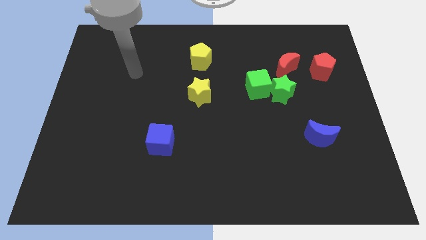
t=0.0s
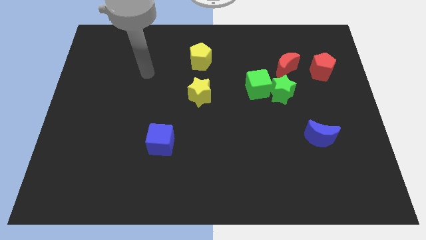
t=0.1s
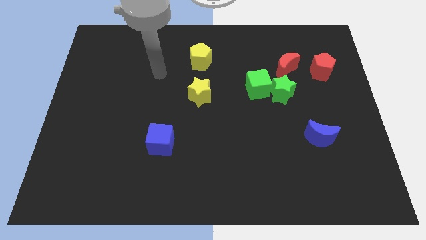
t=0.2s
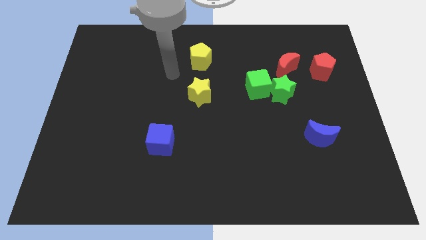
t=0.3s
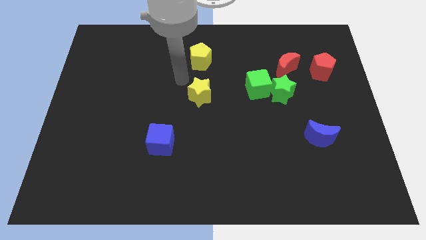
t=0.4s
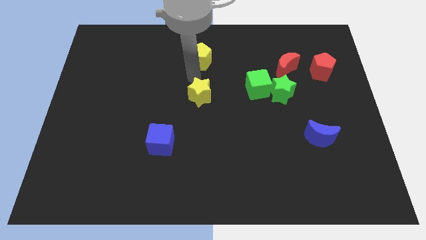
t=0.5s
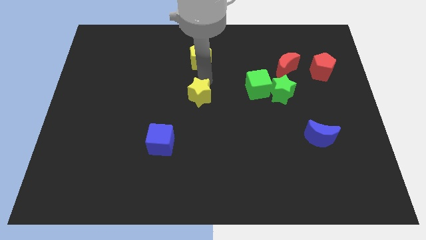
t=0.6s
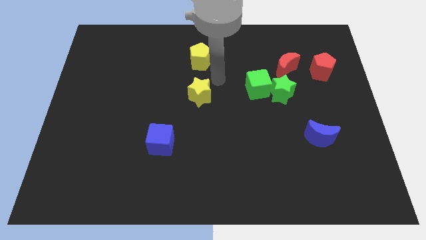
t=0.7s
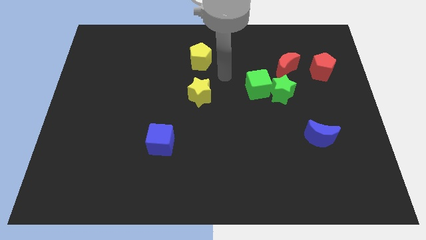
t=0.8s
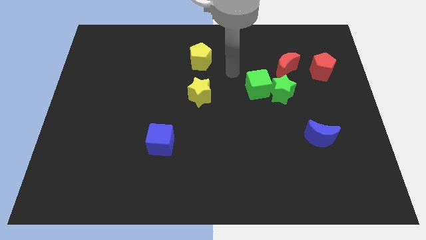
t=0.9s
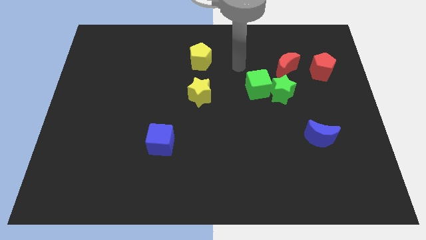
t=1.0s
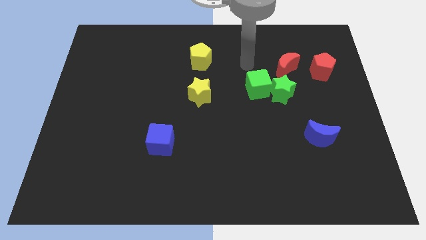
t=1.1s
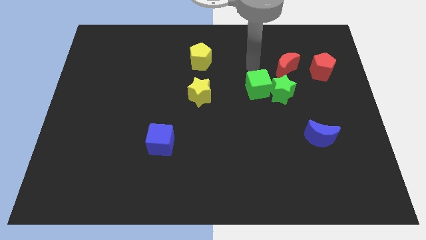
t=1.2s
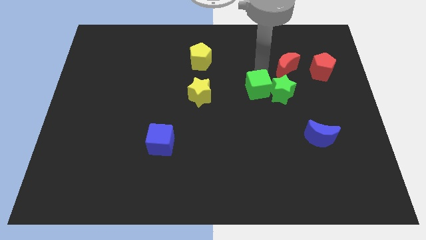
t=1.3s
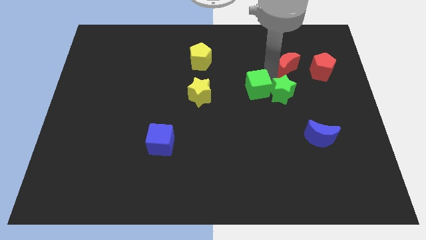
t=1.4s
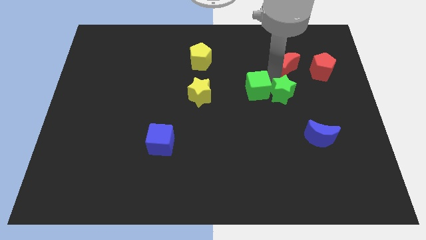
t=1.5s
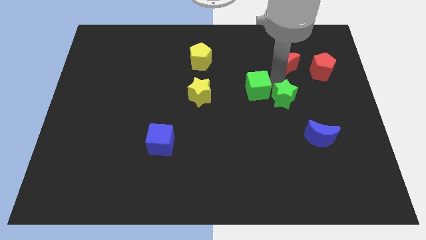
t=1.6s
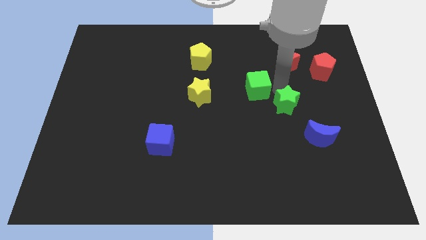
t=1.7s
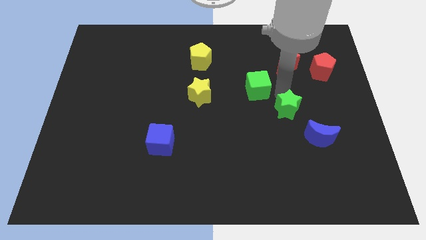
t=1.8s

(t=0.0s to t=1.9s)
pull the green star apart from the green cube and red moon

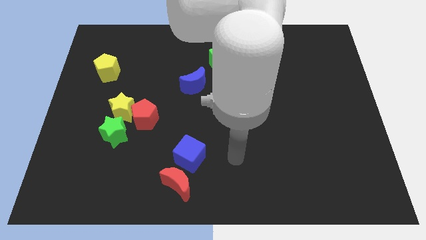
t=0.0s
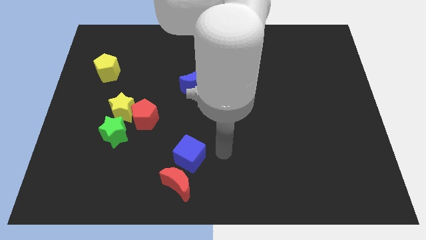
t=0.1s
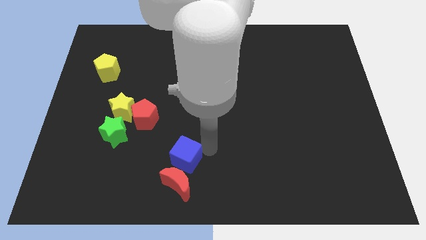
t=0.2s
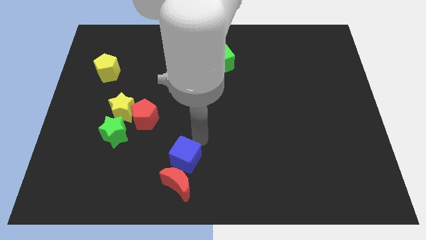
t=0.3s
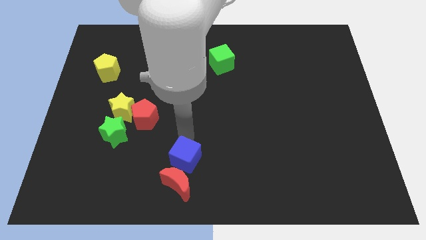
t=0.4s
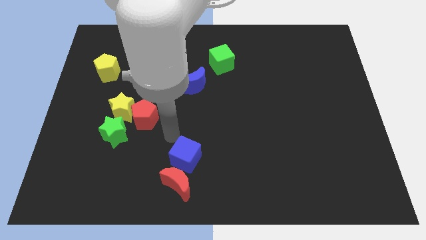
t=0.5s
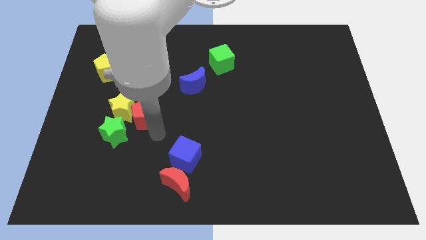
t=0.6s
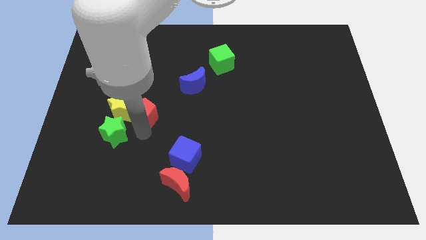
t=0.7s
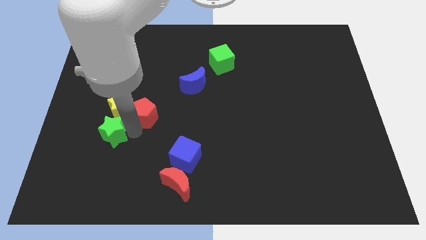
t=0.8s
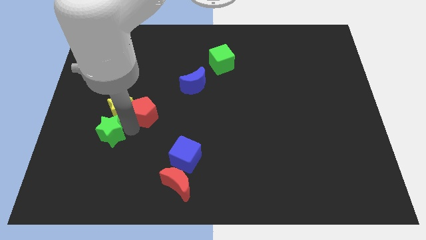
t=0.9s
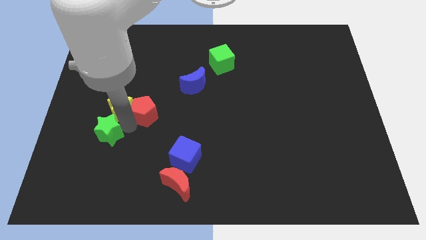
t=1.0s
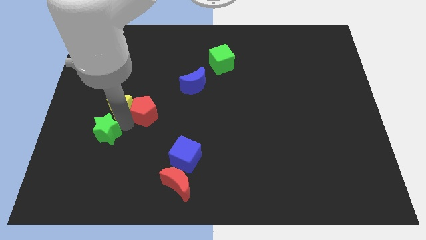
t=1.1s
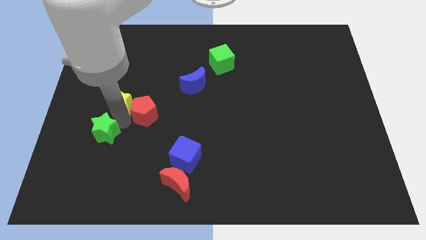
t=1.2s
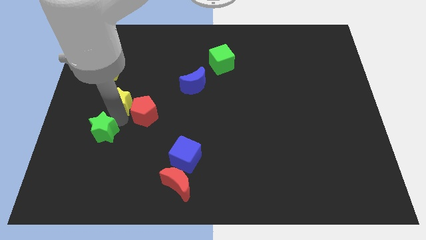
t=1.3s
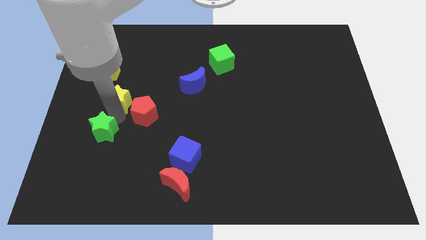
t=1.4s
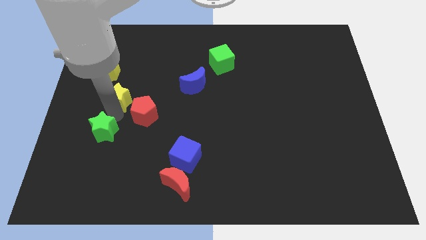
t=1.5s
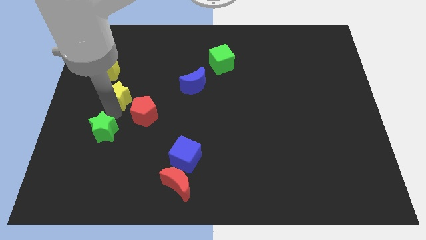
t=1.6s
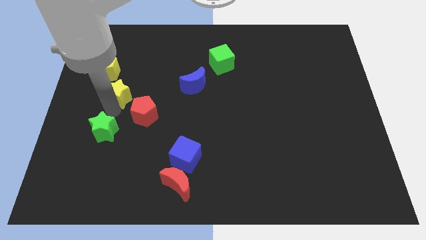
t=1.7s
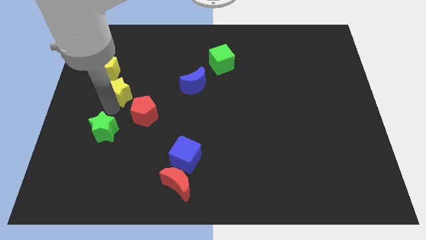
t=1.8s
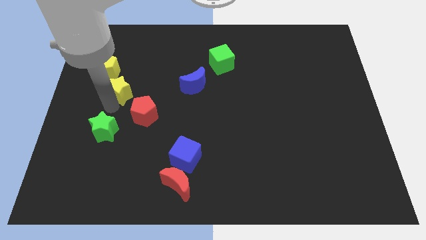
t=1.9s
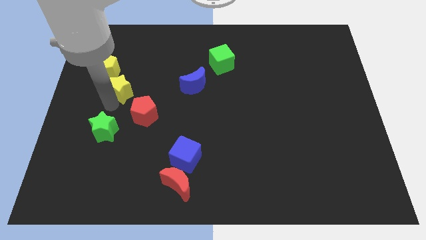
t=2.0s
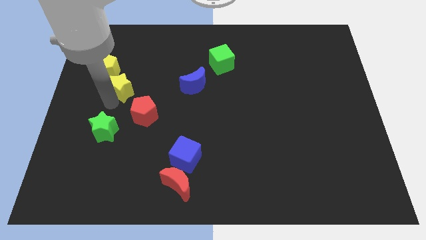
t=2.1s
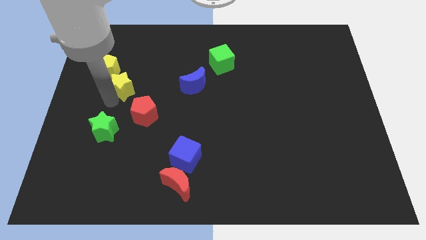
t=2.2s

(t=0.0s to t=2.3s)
move the yellow star away from the red pentagon and green star

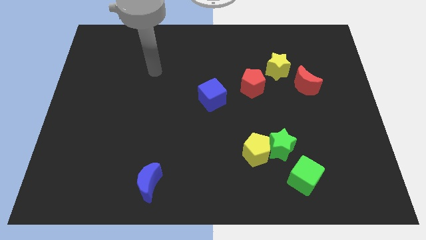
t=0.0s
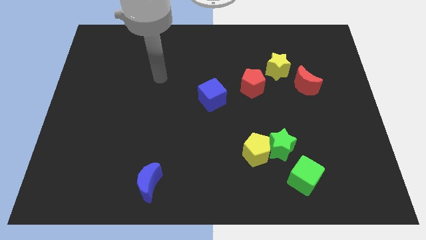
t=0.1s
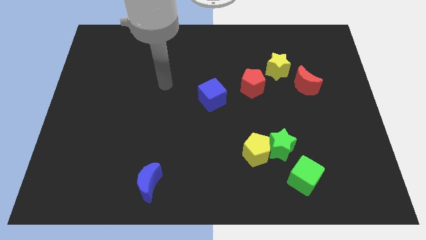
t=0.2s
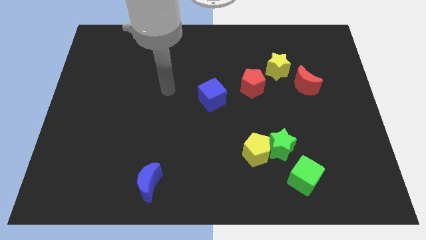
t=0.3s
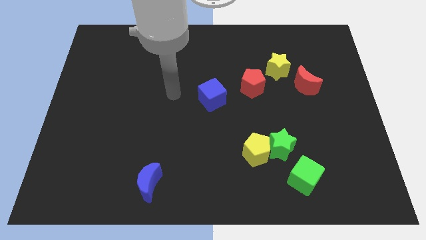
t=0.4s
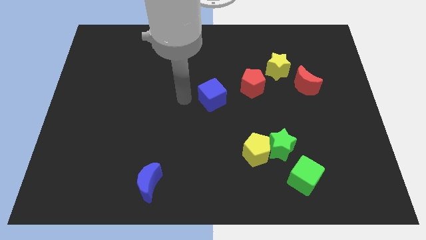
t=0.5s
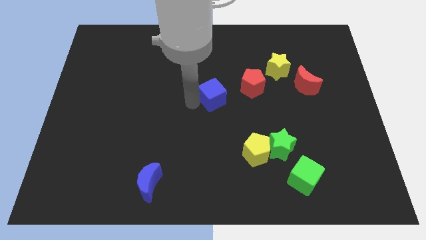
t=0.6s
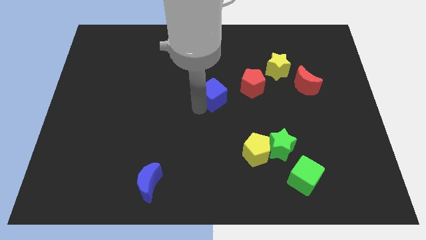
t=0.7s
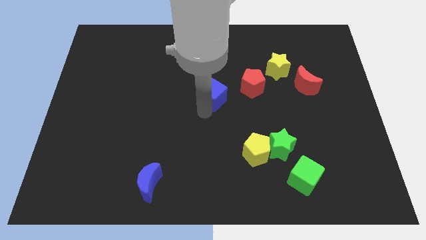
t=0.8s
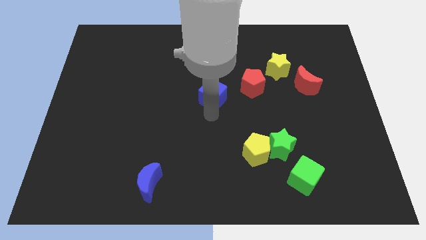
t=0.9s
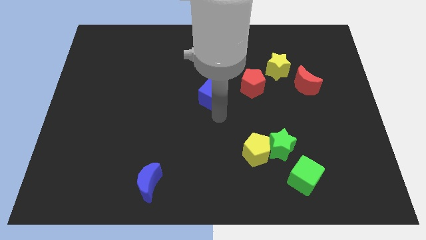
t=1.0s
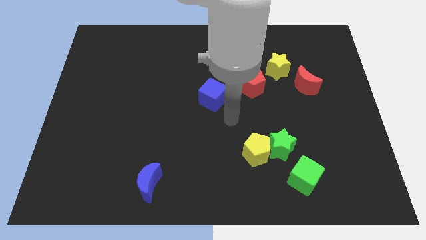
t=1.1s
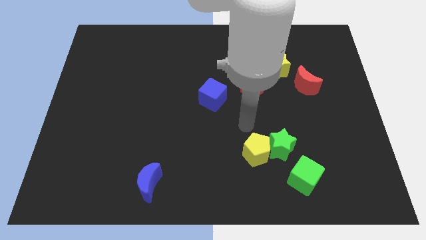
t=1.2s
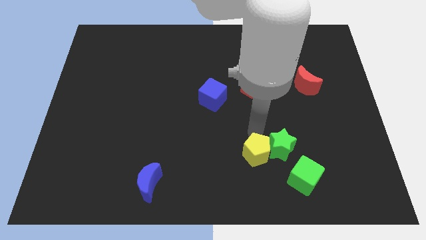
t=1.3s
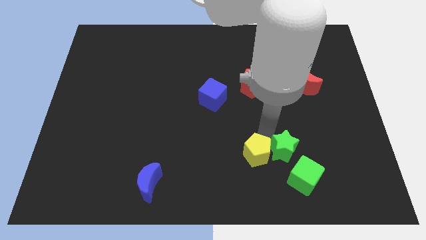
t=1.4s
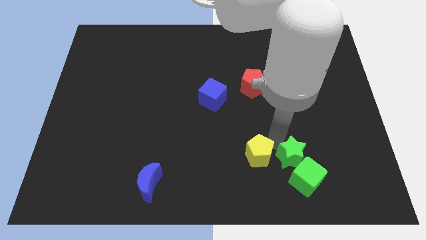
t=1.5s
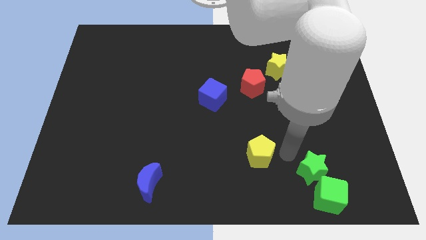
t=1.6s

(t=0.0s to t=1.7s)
move the yellow pentagon away from the green star

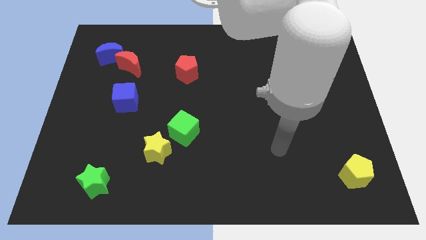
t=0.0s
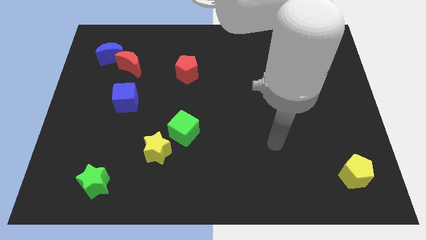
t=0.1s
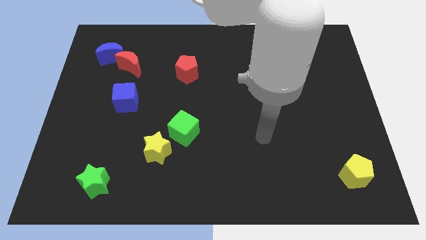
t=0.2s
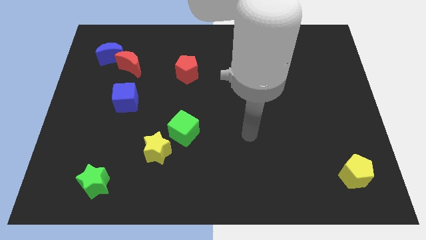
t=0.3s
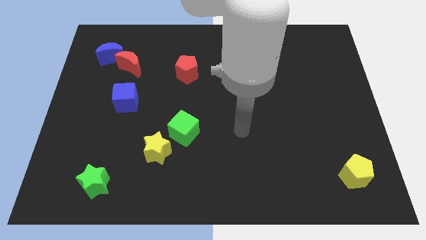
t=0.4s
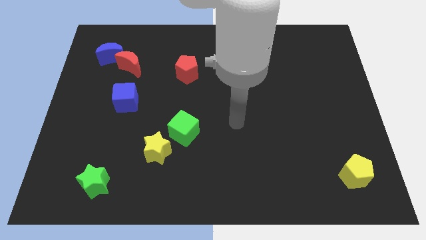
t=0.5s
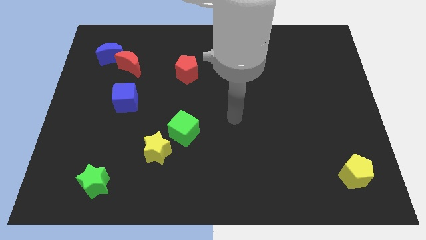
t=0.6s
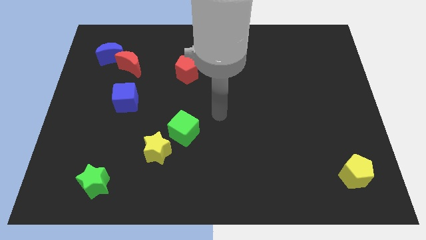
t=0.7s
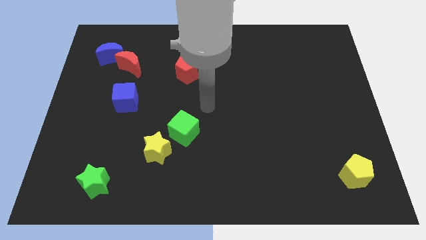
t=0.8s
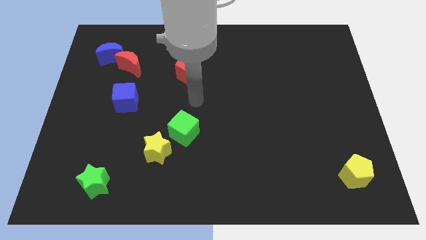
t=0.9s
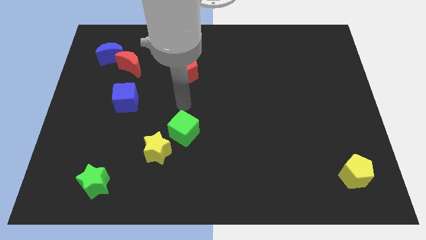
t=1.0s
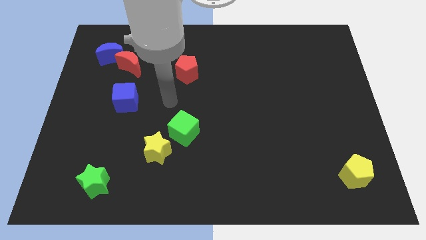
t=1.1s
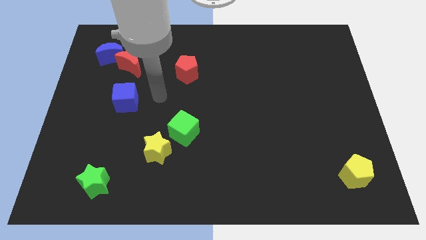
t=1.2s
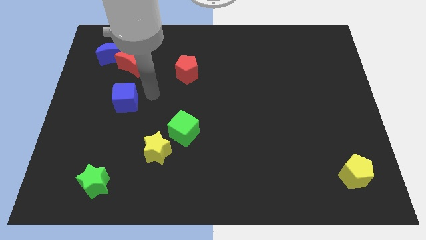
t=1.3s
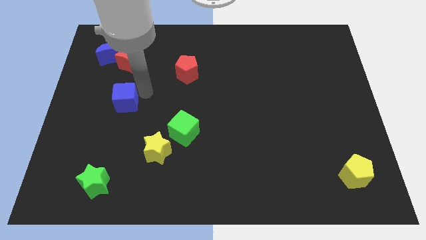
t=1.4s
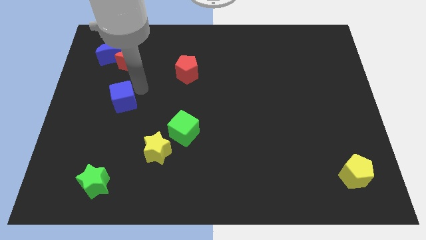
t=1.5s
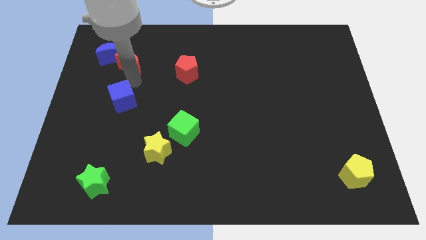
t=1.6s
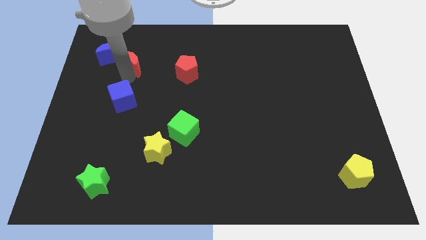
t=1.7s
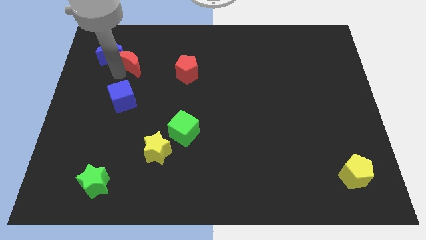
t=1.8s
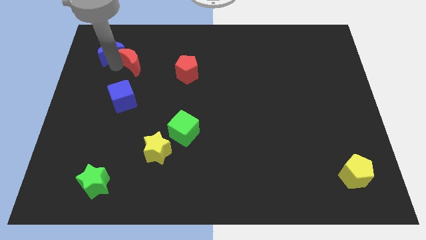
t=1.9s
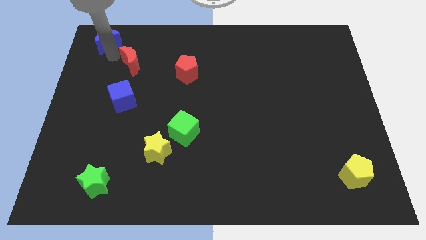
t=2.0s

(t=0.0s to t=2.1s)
pull the red moon apart from the blue moon

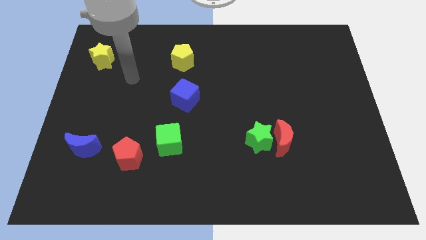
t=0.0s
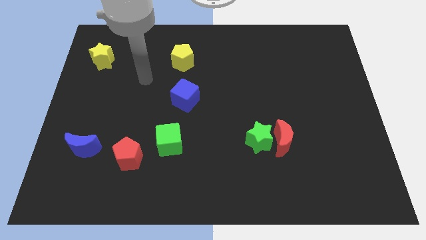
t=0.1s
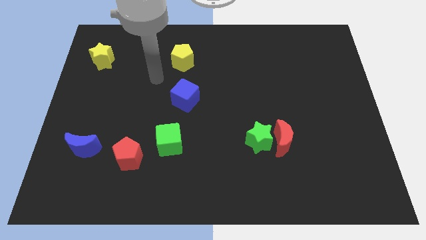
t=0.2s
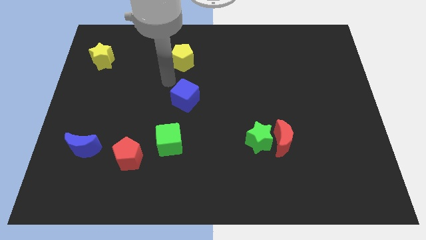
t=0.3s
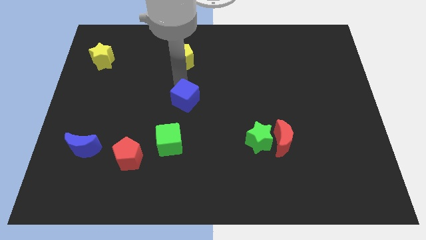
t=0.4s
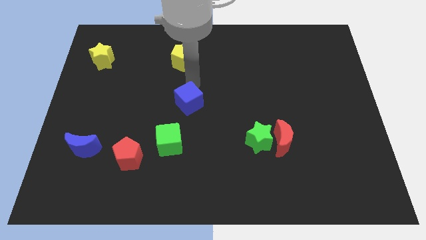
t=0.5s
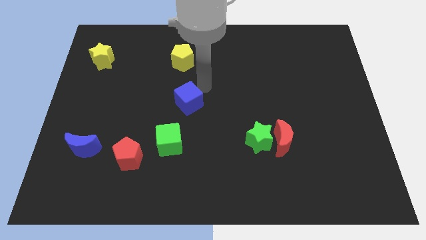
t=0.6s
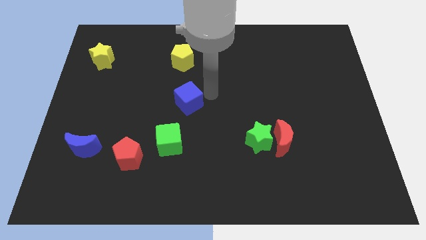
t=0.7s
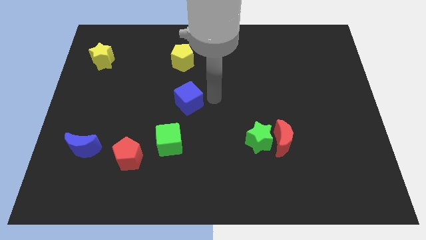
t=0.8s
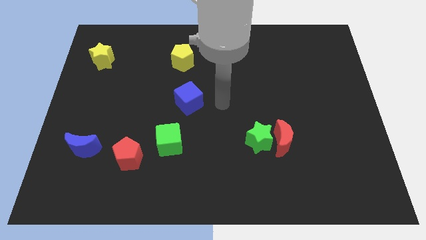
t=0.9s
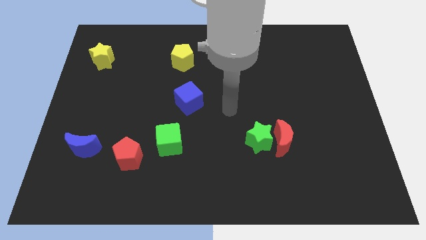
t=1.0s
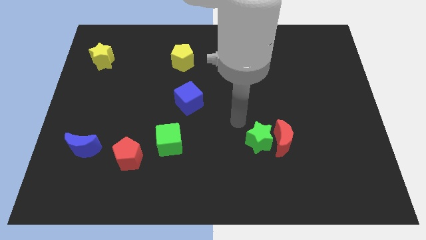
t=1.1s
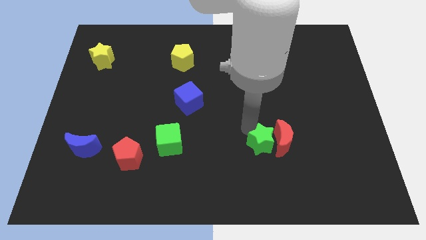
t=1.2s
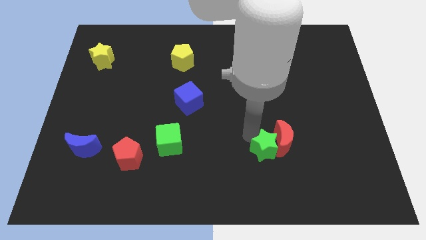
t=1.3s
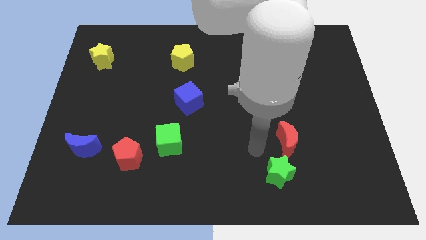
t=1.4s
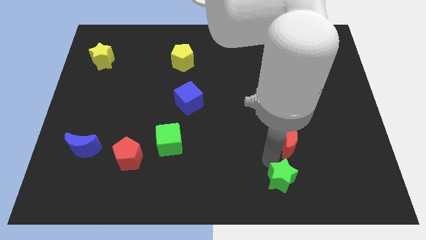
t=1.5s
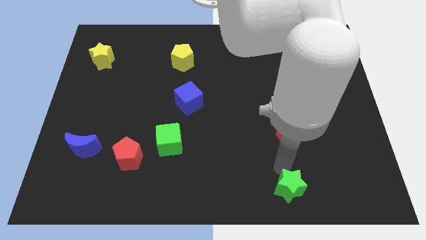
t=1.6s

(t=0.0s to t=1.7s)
move the red moon away from the green star
